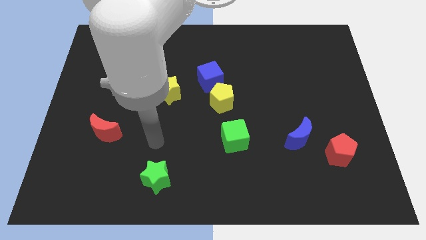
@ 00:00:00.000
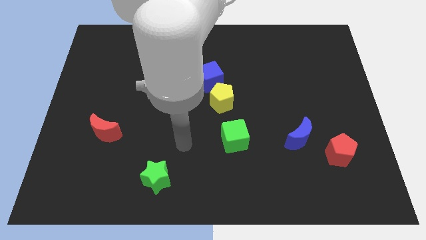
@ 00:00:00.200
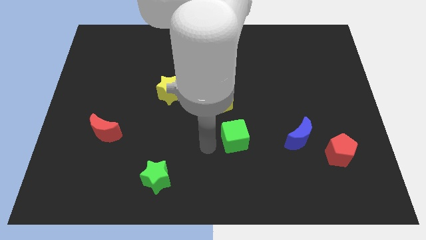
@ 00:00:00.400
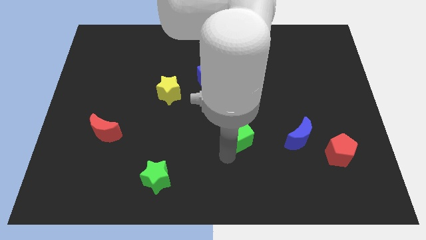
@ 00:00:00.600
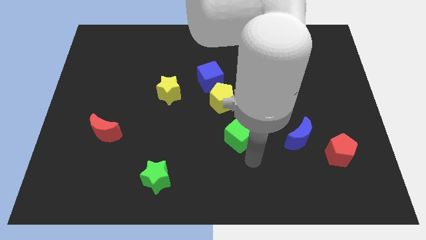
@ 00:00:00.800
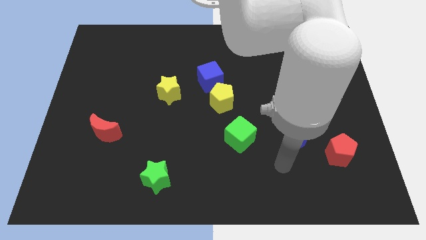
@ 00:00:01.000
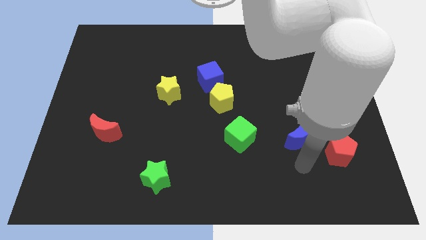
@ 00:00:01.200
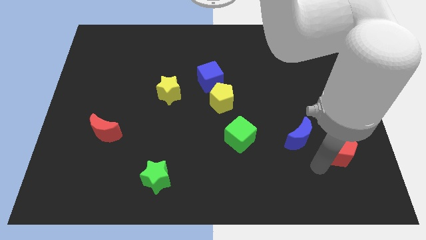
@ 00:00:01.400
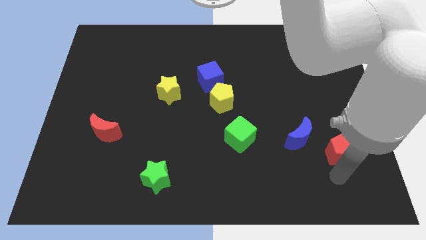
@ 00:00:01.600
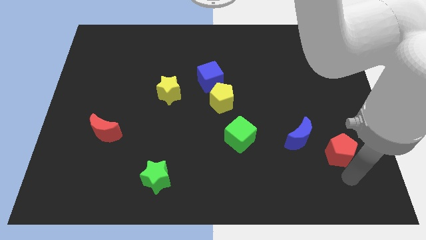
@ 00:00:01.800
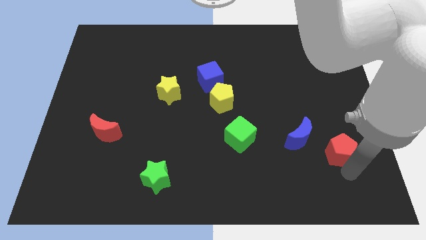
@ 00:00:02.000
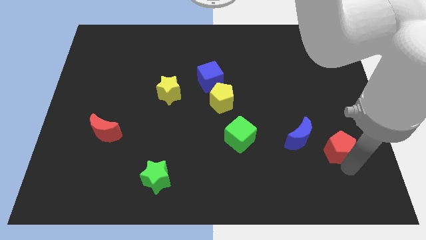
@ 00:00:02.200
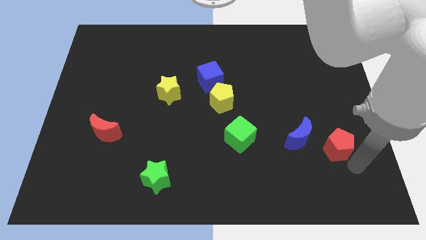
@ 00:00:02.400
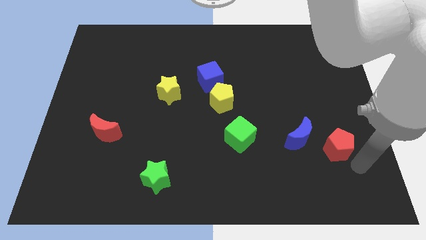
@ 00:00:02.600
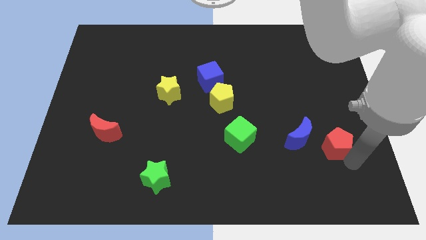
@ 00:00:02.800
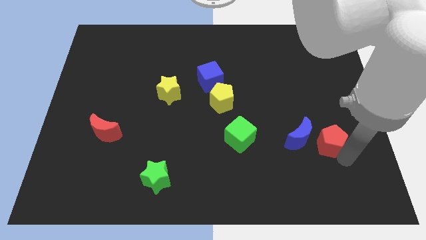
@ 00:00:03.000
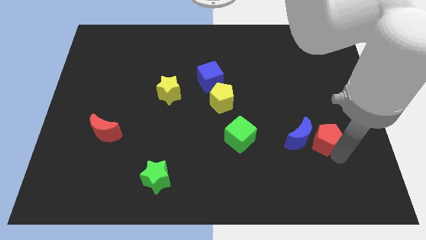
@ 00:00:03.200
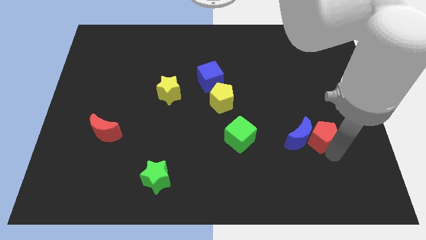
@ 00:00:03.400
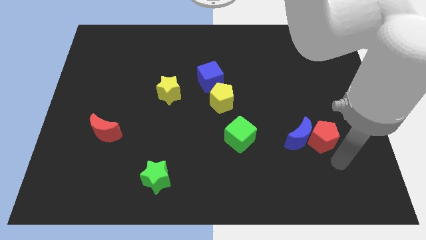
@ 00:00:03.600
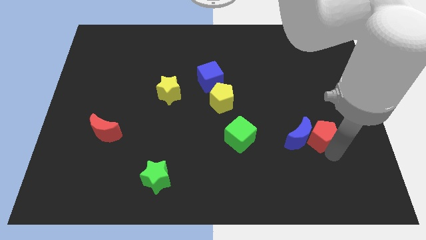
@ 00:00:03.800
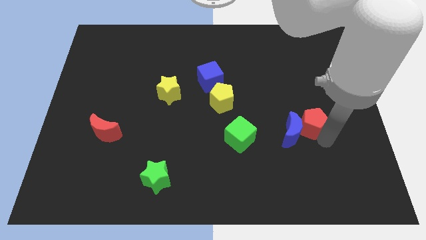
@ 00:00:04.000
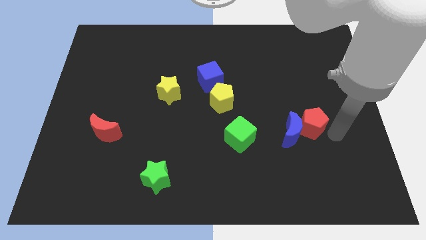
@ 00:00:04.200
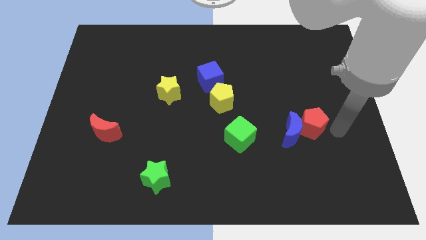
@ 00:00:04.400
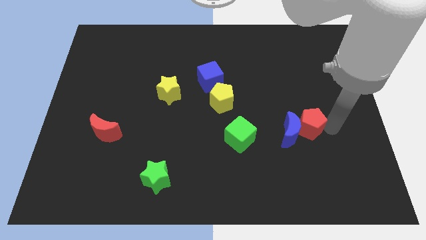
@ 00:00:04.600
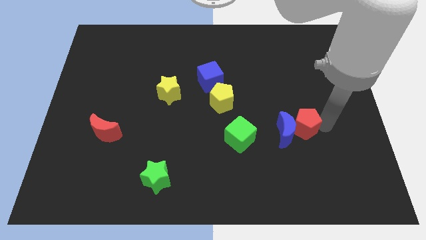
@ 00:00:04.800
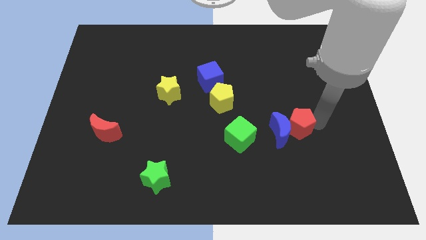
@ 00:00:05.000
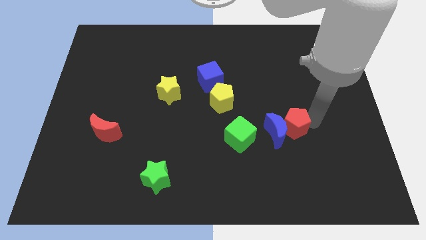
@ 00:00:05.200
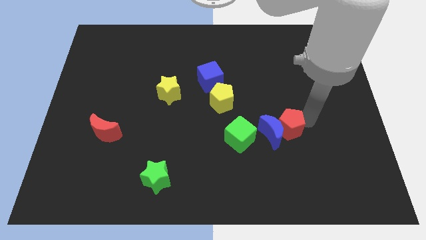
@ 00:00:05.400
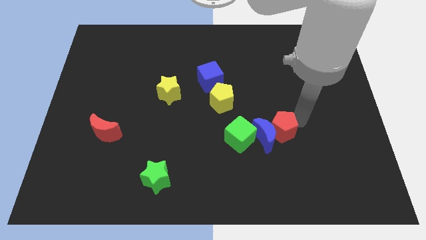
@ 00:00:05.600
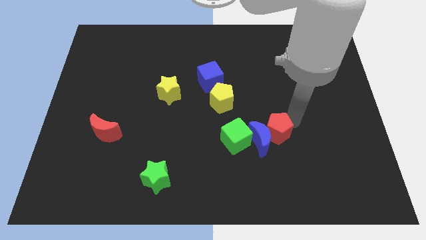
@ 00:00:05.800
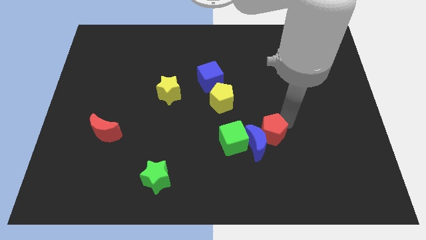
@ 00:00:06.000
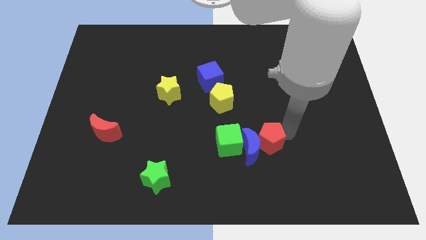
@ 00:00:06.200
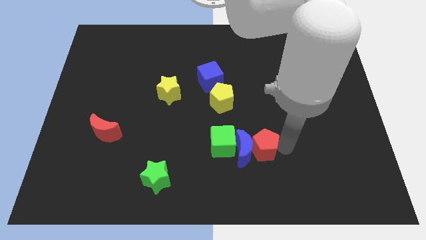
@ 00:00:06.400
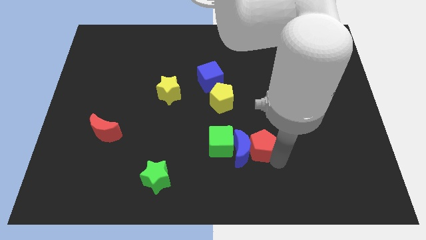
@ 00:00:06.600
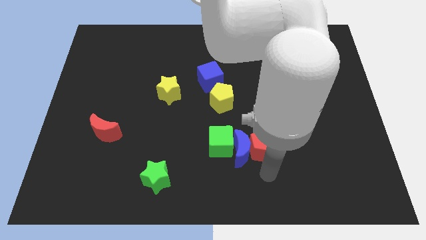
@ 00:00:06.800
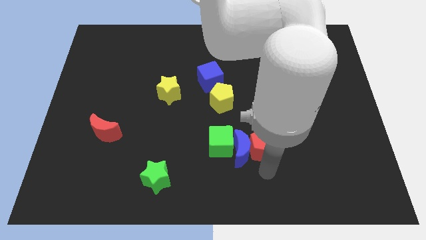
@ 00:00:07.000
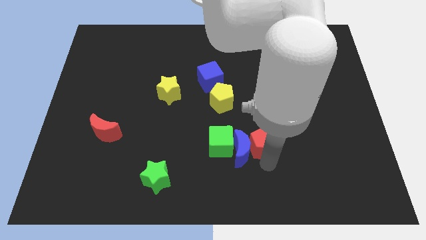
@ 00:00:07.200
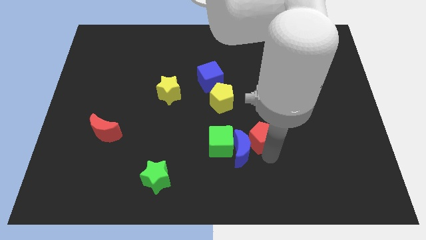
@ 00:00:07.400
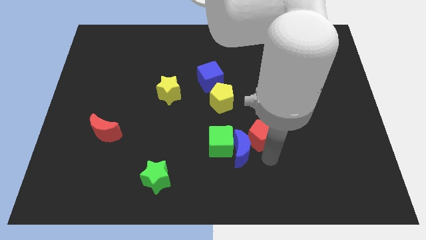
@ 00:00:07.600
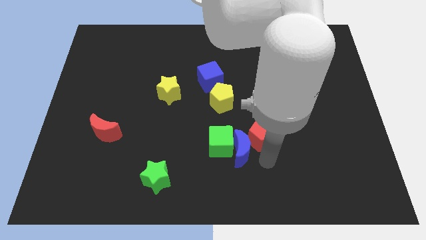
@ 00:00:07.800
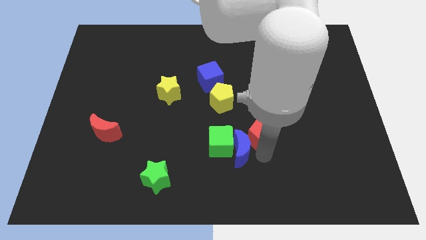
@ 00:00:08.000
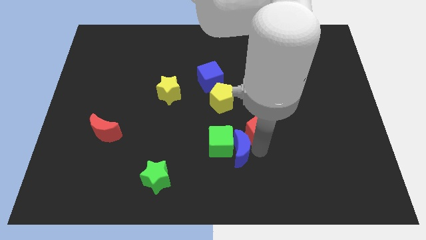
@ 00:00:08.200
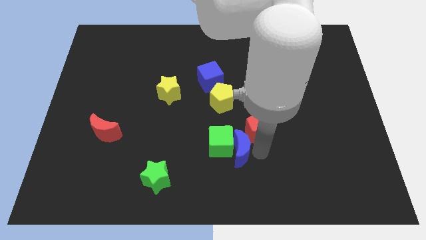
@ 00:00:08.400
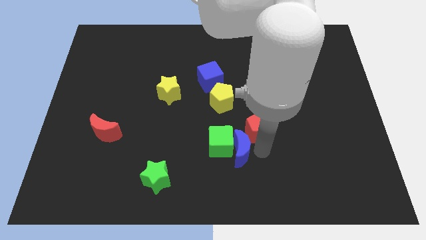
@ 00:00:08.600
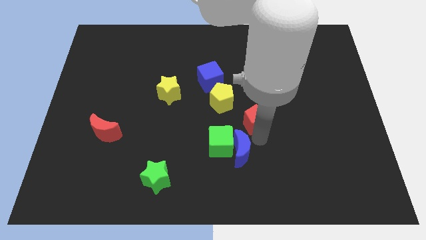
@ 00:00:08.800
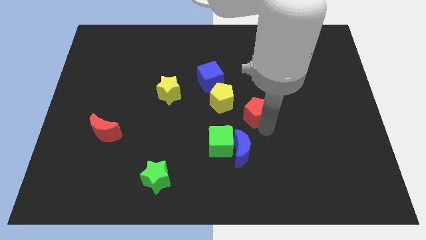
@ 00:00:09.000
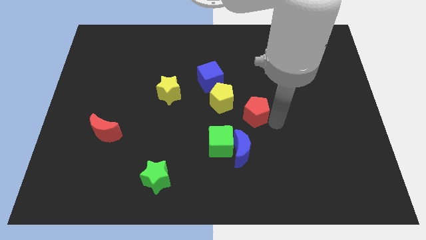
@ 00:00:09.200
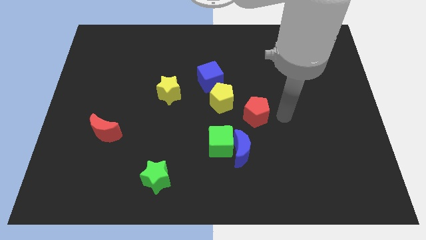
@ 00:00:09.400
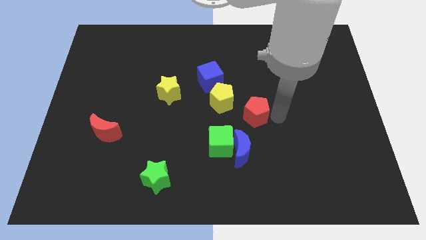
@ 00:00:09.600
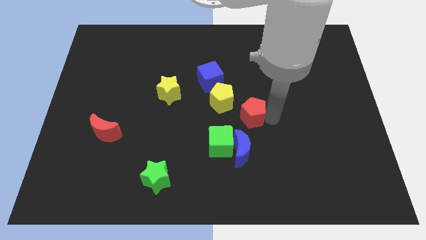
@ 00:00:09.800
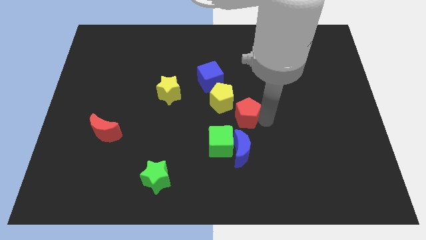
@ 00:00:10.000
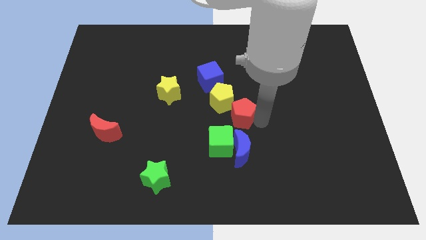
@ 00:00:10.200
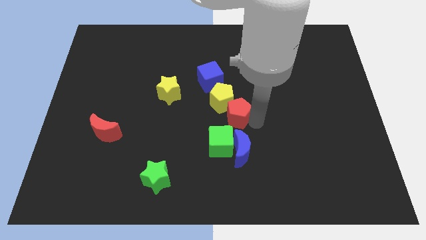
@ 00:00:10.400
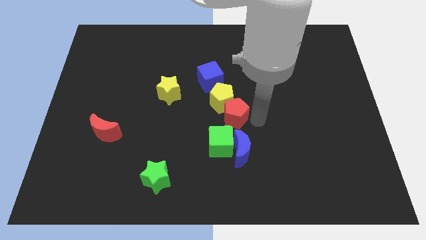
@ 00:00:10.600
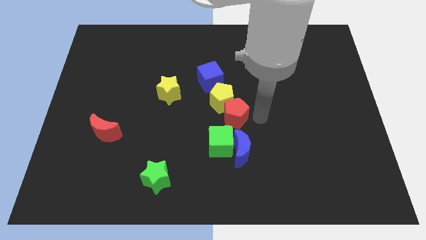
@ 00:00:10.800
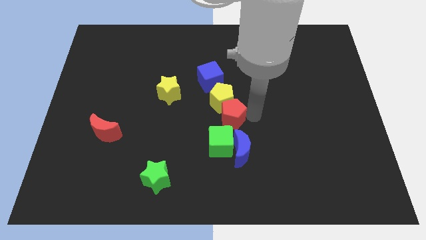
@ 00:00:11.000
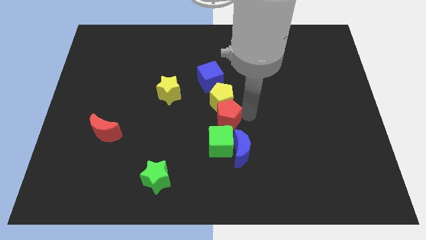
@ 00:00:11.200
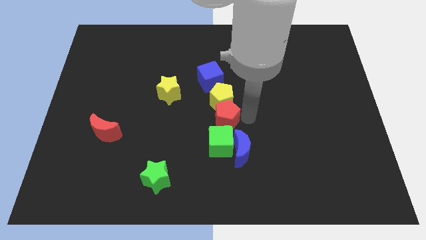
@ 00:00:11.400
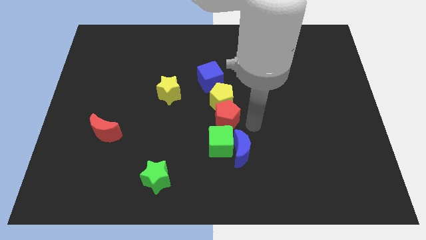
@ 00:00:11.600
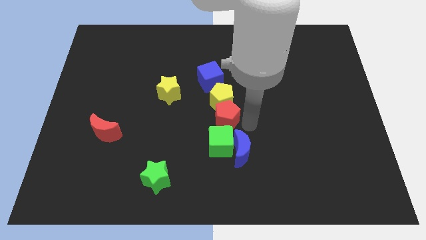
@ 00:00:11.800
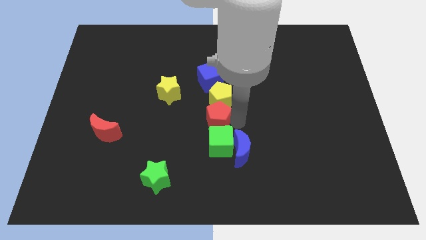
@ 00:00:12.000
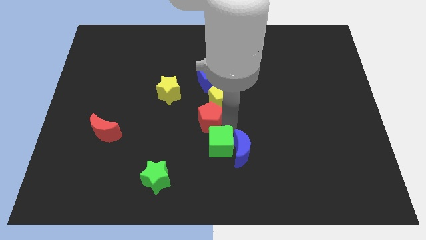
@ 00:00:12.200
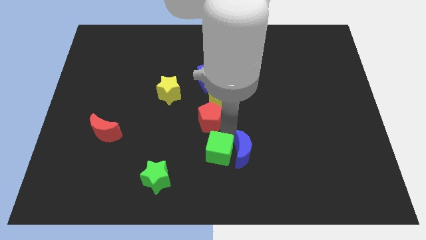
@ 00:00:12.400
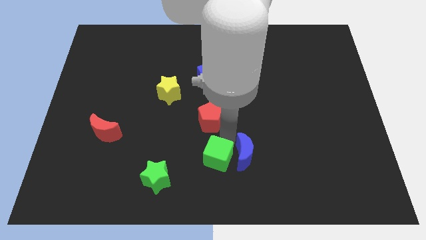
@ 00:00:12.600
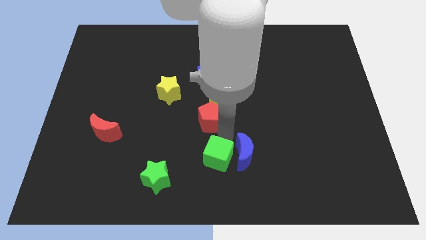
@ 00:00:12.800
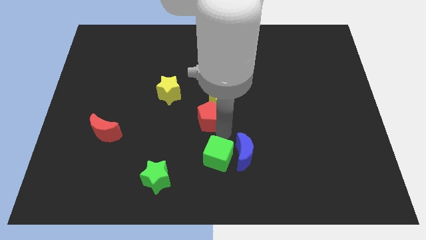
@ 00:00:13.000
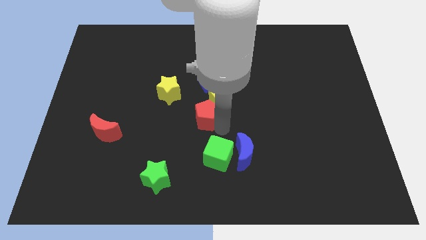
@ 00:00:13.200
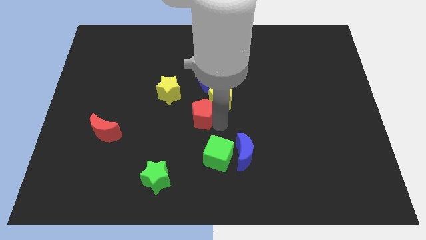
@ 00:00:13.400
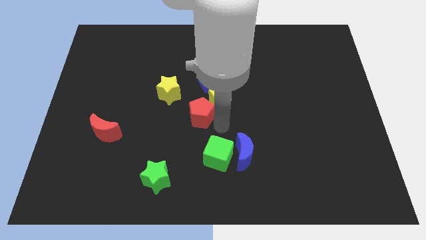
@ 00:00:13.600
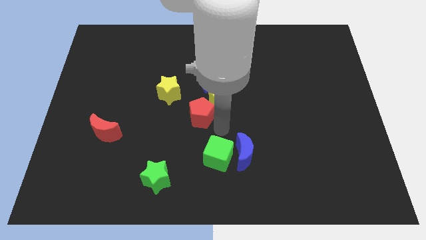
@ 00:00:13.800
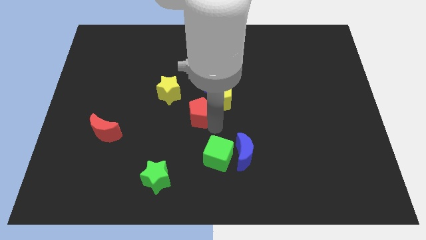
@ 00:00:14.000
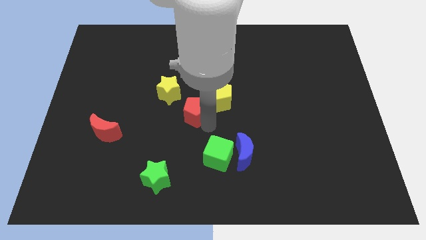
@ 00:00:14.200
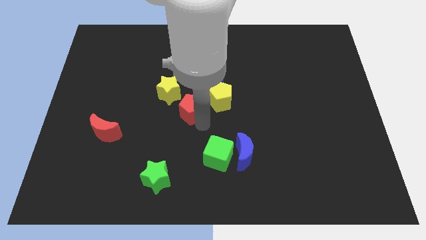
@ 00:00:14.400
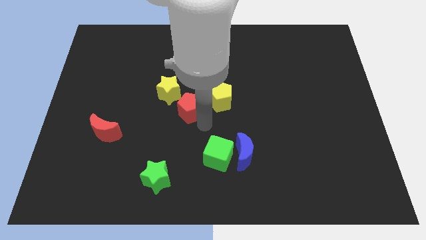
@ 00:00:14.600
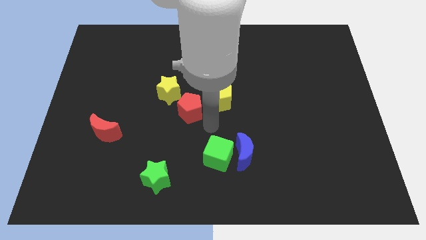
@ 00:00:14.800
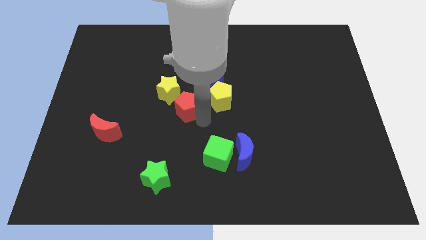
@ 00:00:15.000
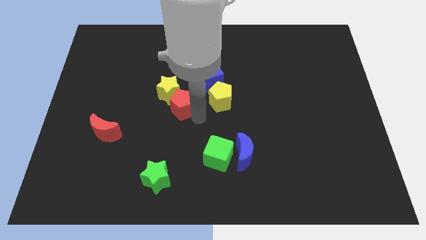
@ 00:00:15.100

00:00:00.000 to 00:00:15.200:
move the red pentagon to the yellow star
